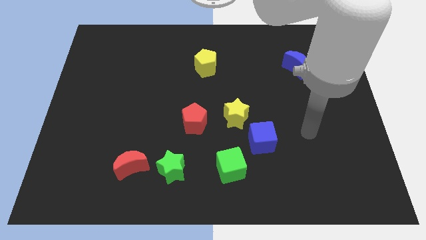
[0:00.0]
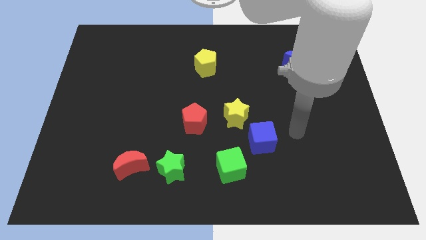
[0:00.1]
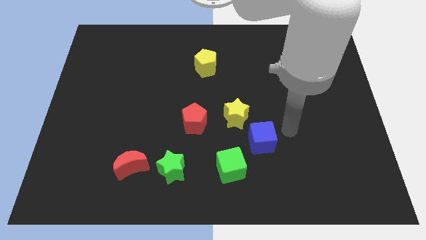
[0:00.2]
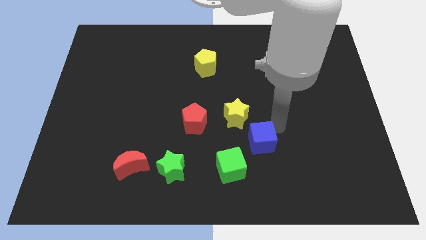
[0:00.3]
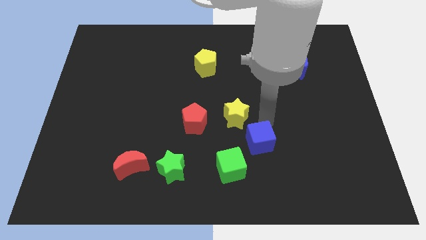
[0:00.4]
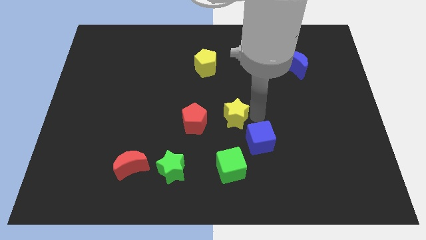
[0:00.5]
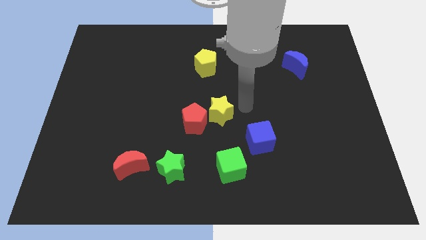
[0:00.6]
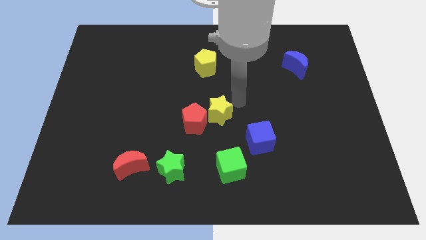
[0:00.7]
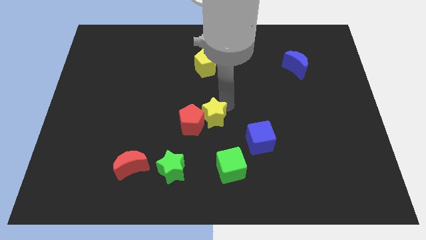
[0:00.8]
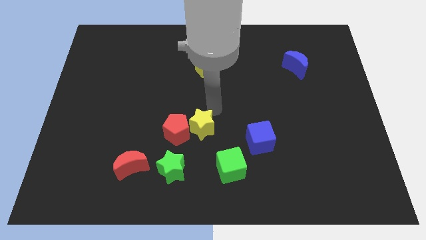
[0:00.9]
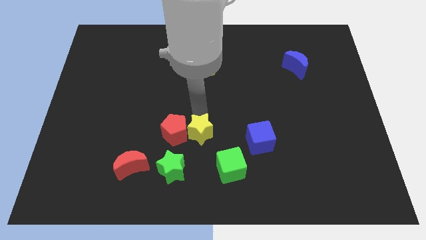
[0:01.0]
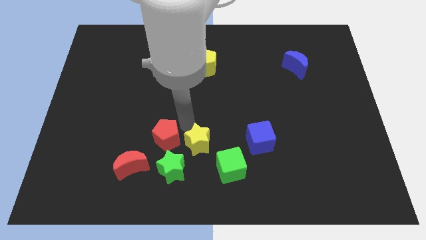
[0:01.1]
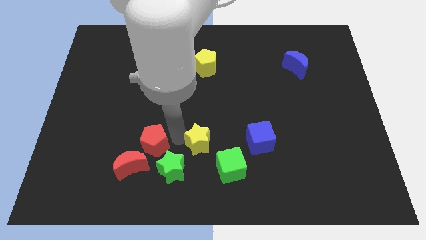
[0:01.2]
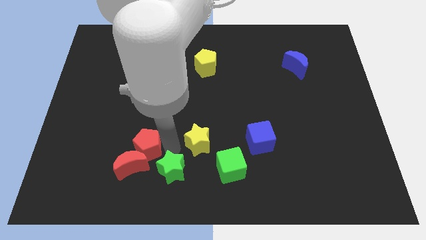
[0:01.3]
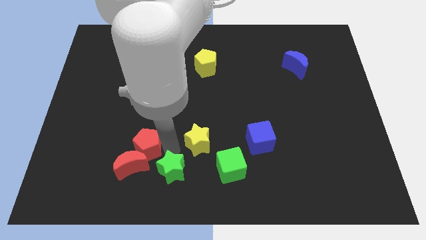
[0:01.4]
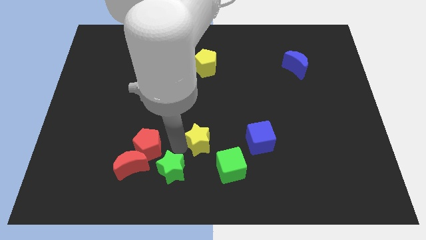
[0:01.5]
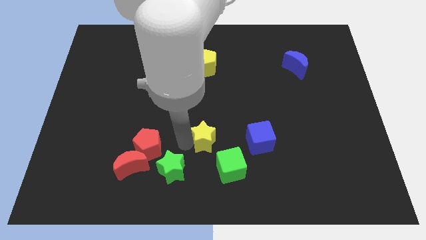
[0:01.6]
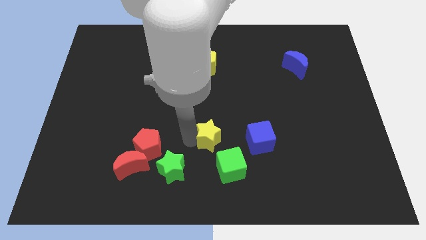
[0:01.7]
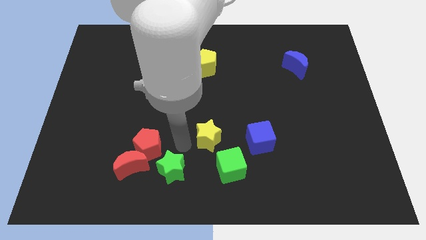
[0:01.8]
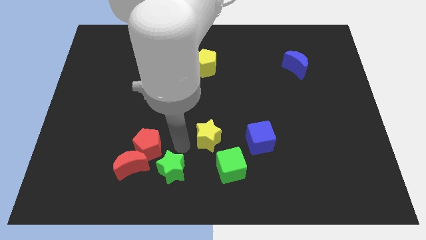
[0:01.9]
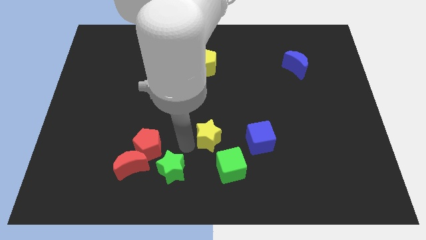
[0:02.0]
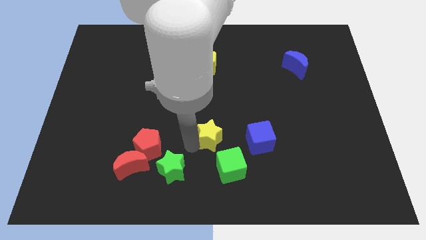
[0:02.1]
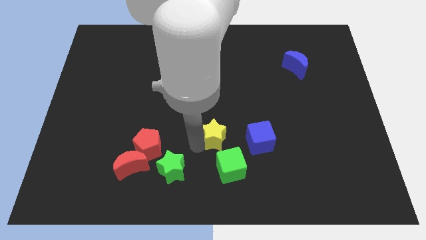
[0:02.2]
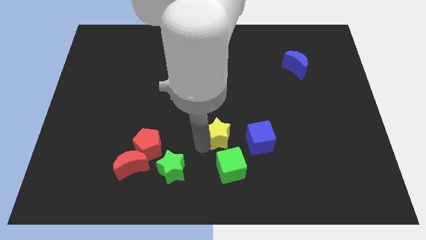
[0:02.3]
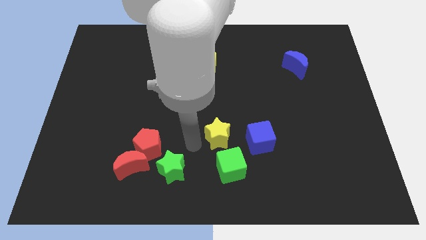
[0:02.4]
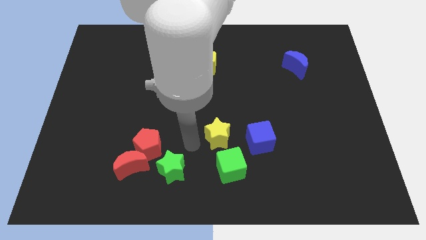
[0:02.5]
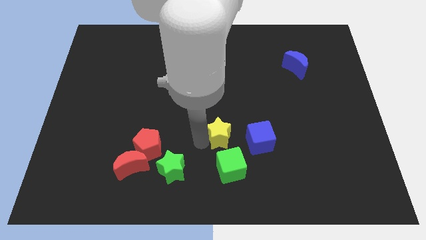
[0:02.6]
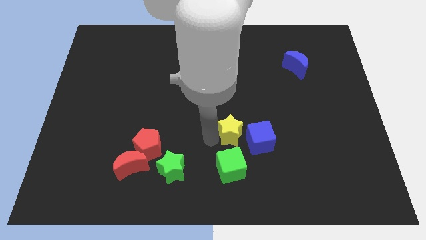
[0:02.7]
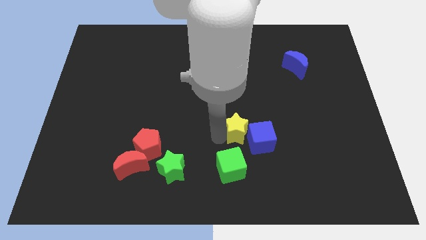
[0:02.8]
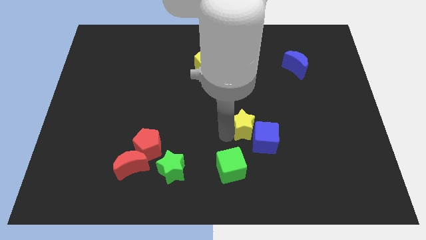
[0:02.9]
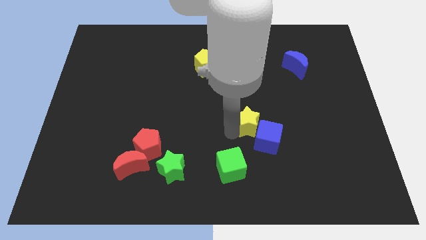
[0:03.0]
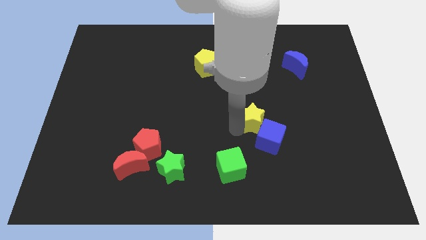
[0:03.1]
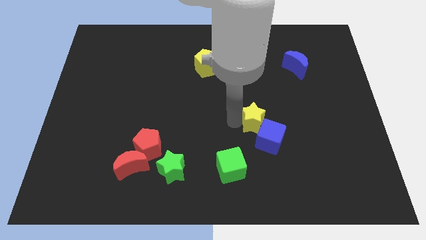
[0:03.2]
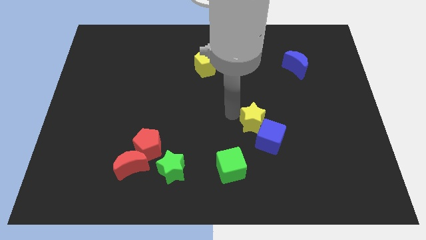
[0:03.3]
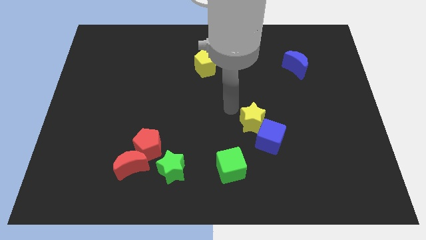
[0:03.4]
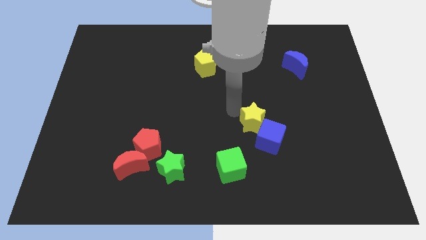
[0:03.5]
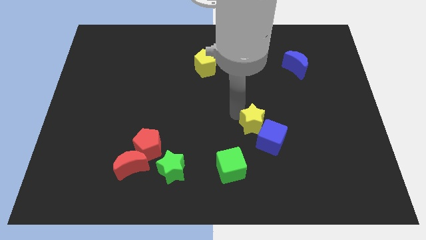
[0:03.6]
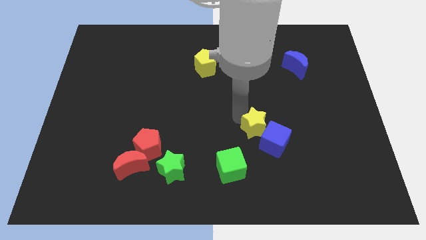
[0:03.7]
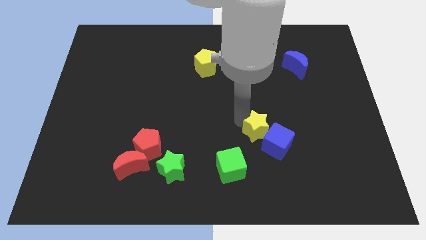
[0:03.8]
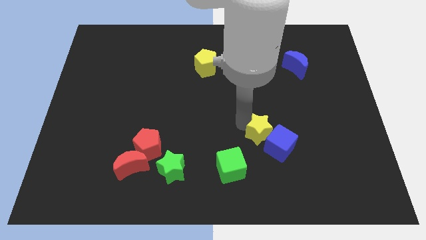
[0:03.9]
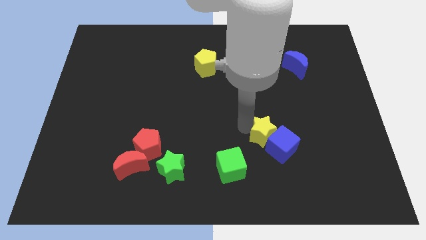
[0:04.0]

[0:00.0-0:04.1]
move the yellow star downwards and right somewhat

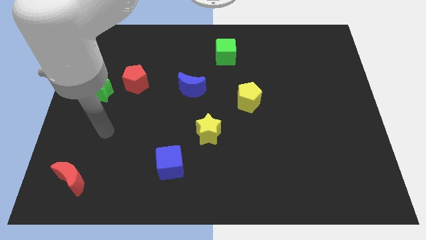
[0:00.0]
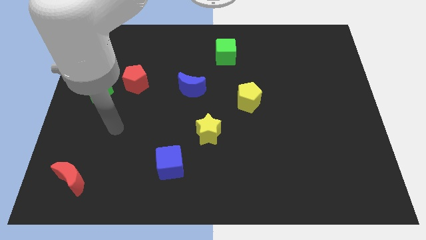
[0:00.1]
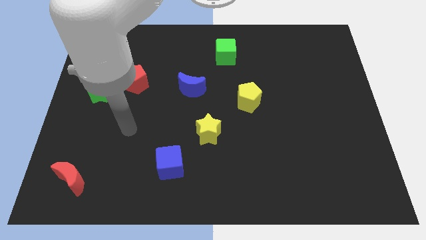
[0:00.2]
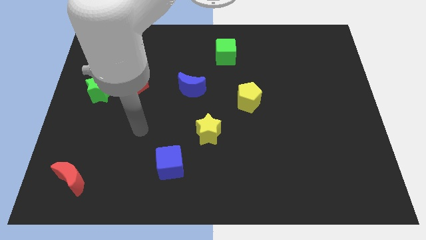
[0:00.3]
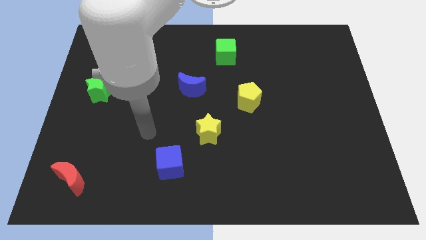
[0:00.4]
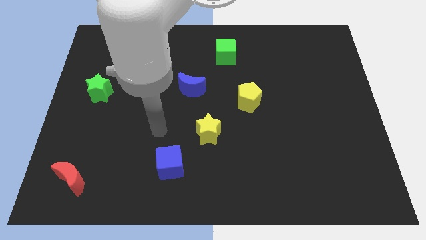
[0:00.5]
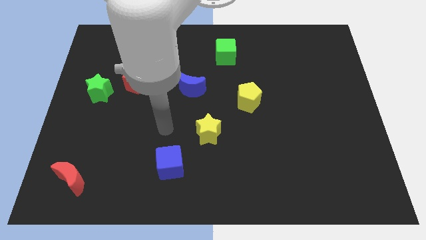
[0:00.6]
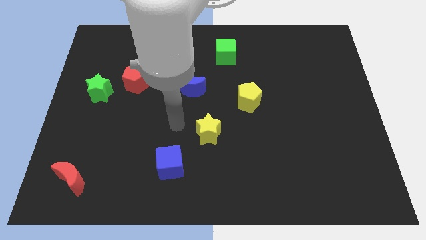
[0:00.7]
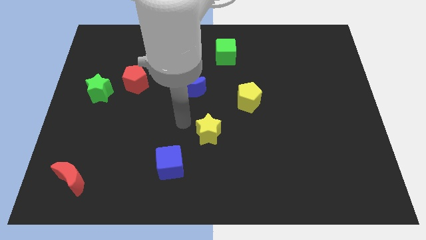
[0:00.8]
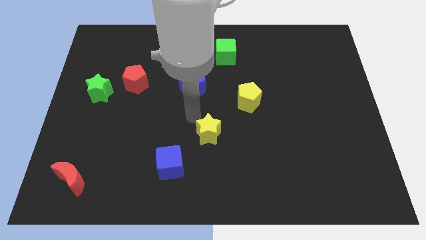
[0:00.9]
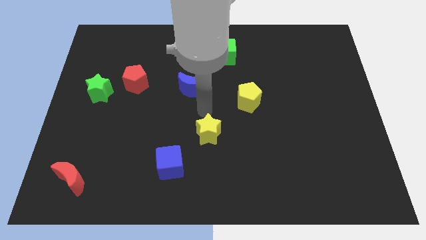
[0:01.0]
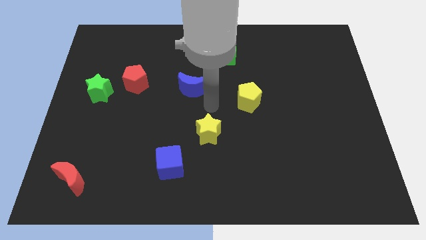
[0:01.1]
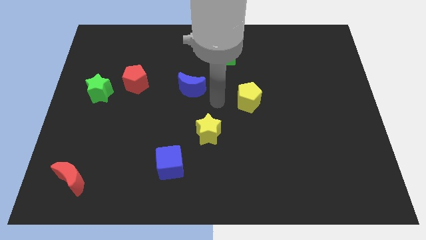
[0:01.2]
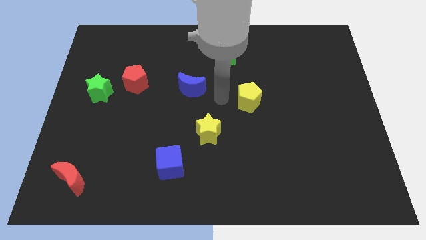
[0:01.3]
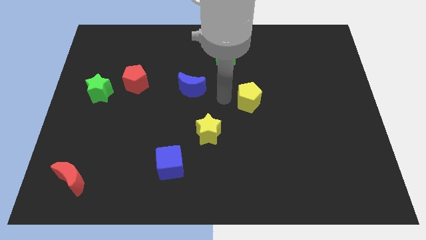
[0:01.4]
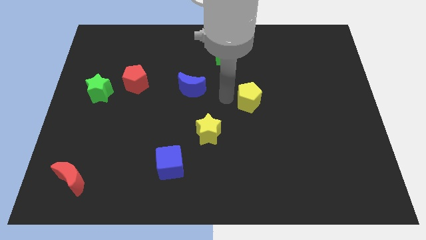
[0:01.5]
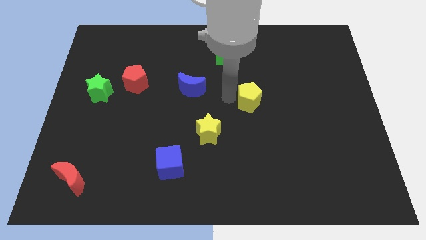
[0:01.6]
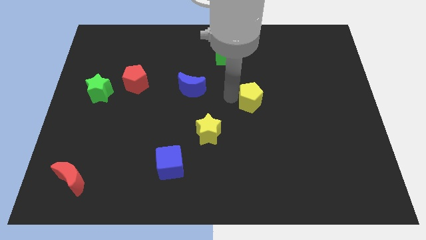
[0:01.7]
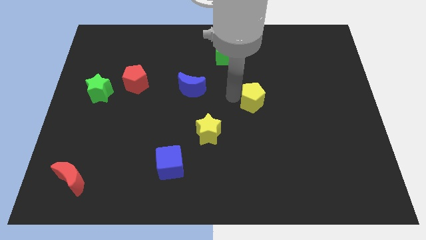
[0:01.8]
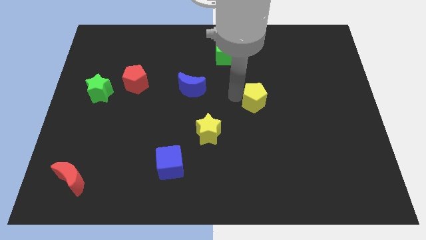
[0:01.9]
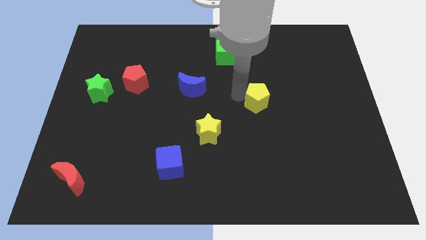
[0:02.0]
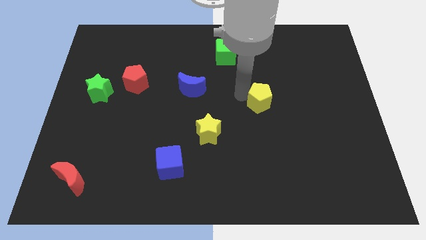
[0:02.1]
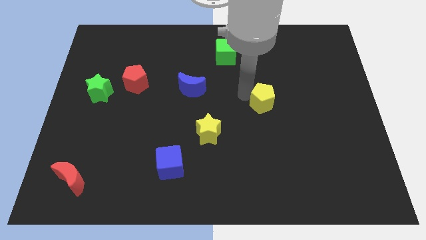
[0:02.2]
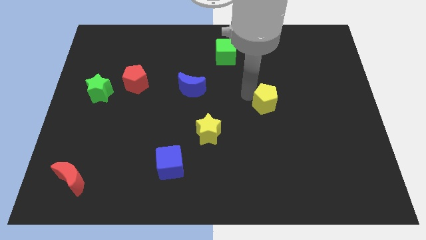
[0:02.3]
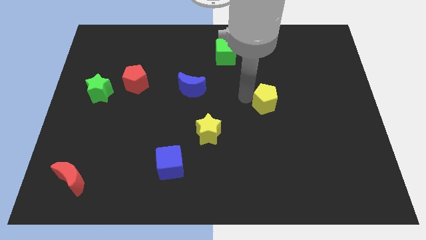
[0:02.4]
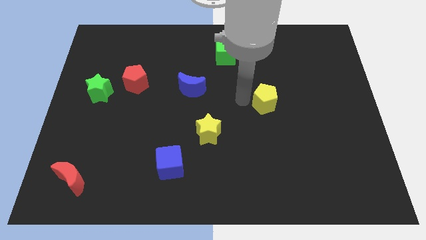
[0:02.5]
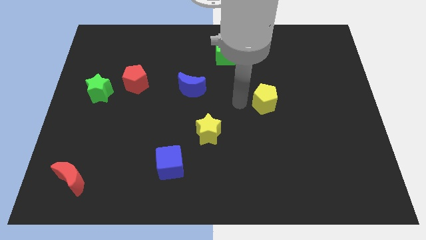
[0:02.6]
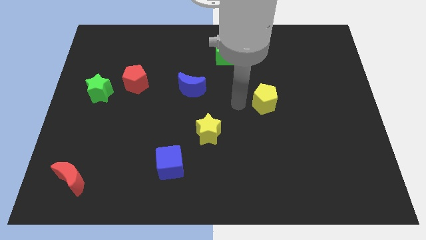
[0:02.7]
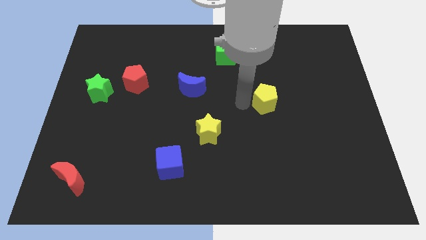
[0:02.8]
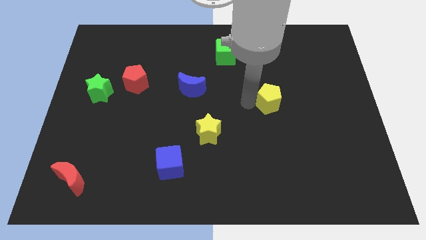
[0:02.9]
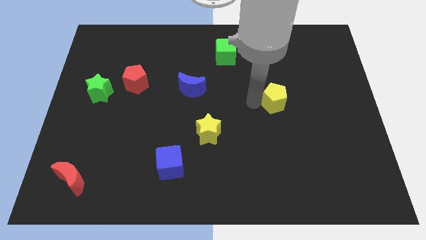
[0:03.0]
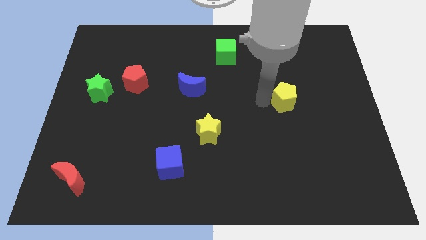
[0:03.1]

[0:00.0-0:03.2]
push the yellow pentagon a little bit to the right

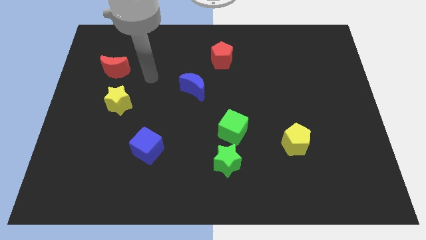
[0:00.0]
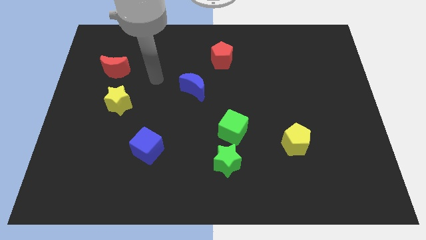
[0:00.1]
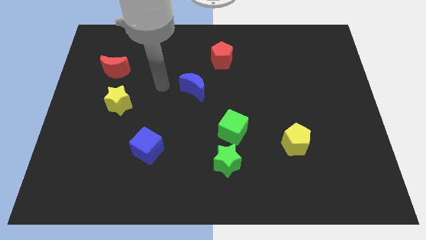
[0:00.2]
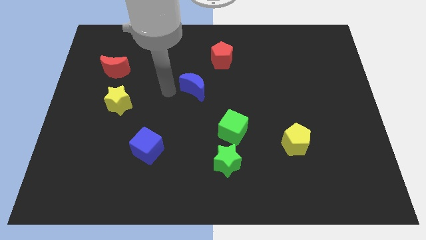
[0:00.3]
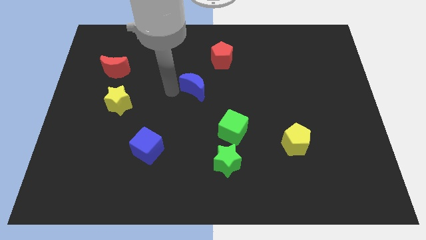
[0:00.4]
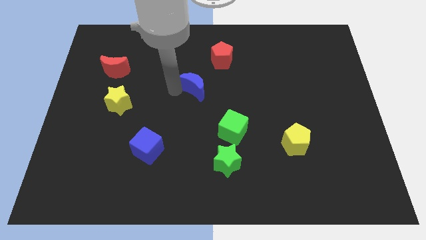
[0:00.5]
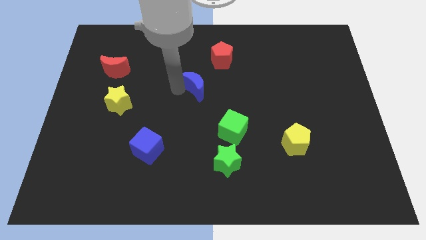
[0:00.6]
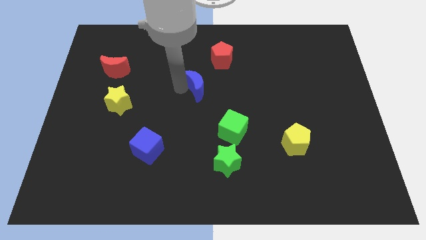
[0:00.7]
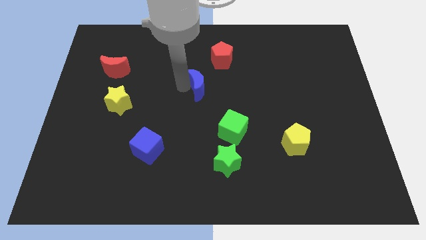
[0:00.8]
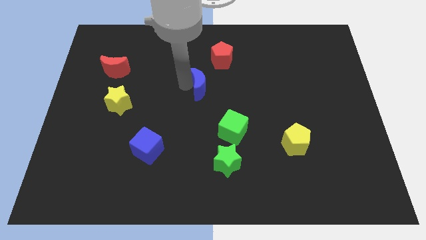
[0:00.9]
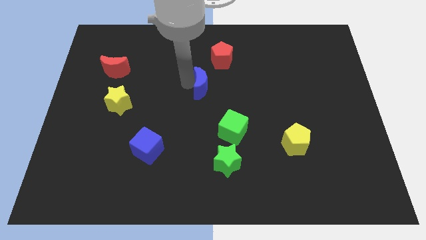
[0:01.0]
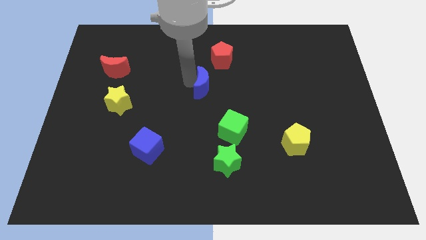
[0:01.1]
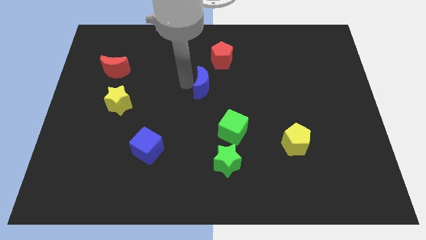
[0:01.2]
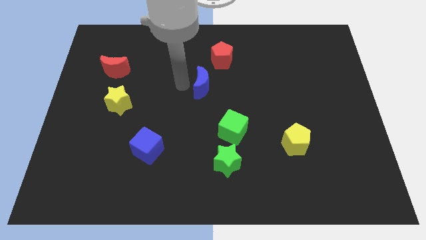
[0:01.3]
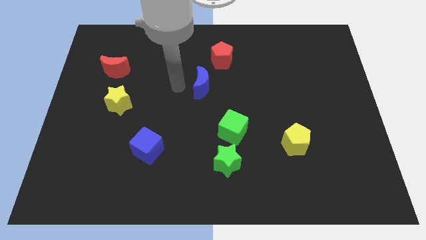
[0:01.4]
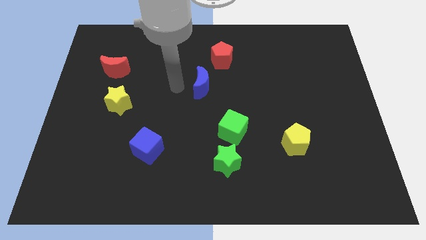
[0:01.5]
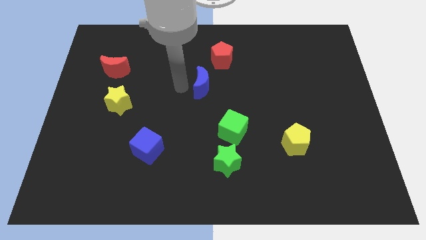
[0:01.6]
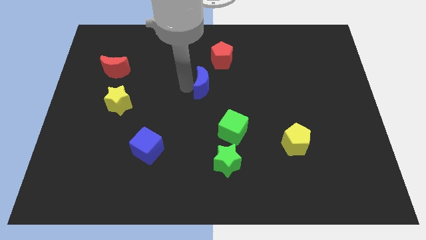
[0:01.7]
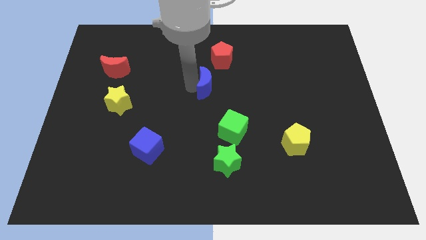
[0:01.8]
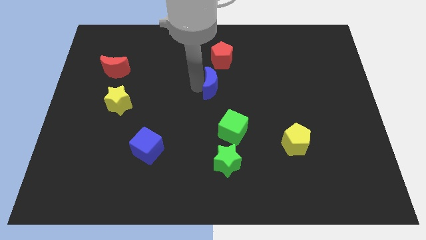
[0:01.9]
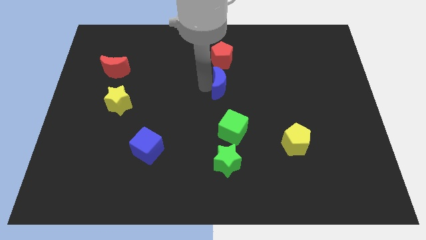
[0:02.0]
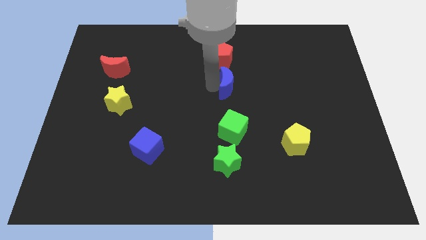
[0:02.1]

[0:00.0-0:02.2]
move the blue moon somewhat to the right
